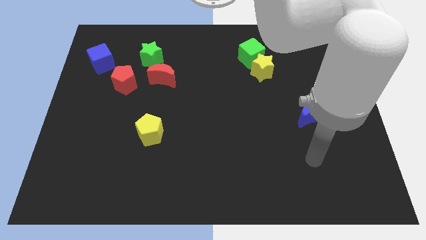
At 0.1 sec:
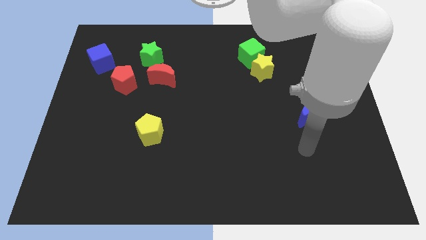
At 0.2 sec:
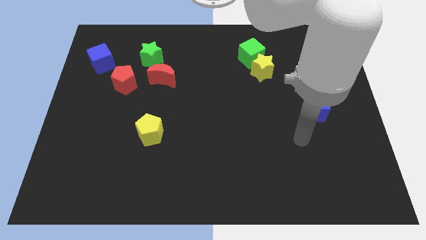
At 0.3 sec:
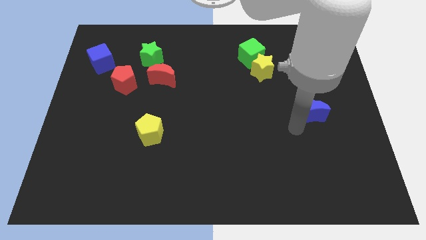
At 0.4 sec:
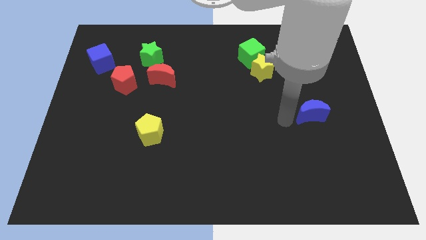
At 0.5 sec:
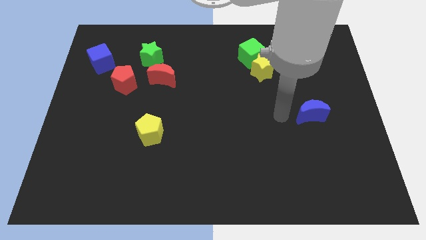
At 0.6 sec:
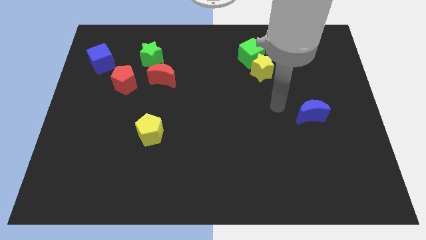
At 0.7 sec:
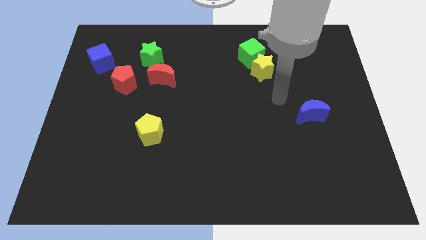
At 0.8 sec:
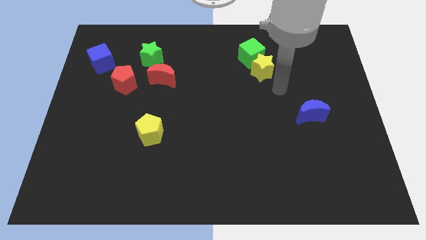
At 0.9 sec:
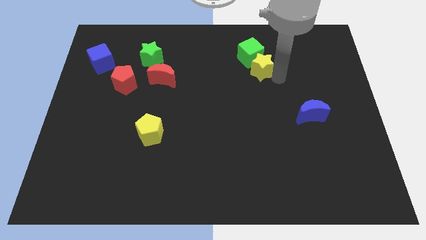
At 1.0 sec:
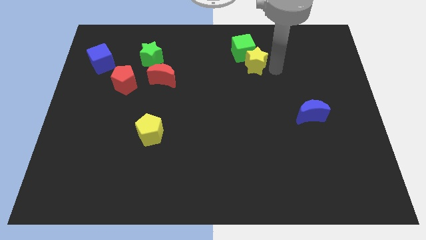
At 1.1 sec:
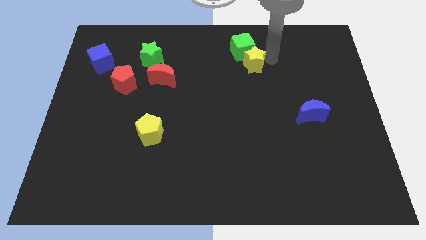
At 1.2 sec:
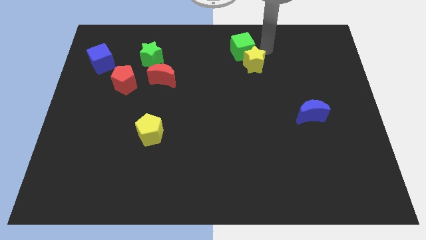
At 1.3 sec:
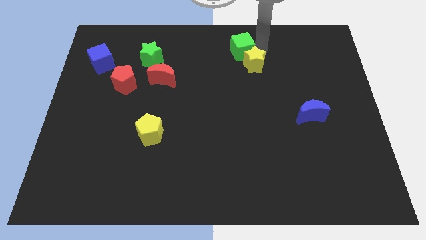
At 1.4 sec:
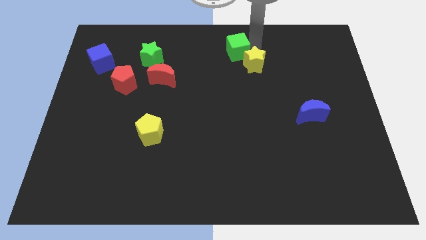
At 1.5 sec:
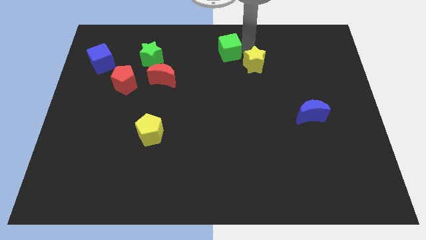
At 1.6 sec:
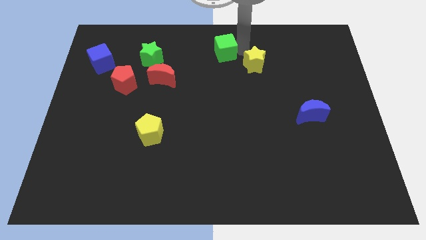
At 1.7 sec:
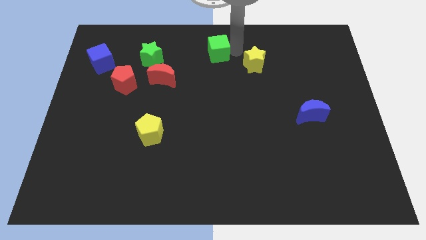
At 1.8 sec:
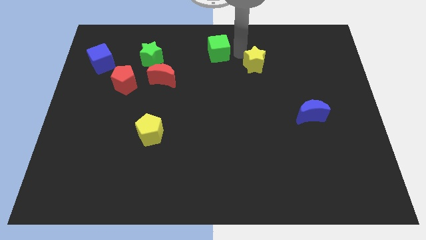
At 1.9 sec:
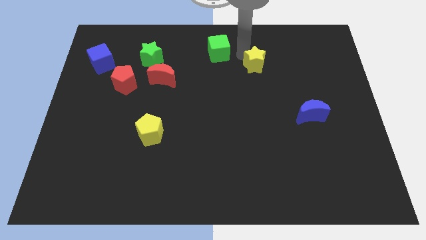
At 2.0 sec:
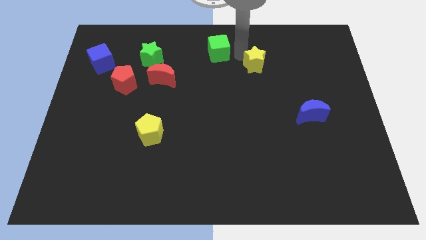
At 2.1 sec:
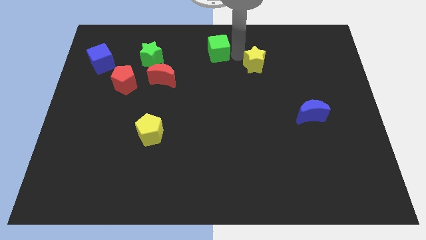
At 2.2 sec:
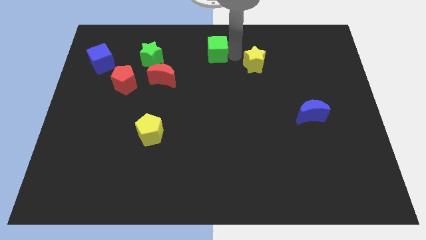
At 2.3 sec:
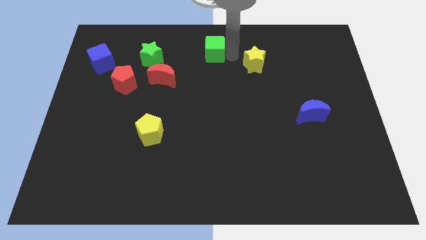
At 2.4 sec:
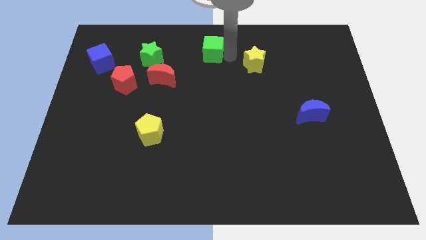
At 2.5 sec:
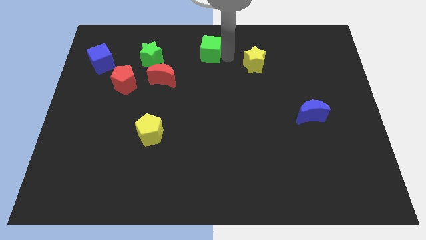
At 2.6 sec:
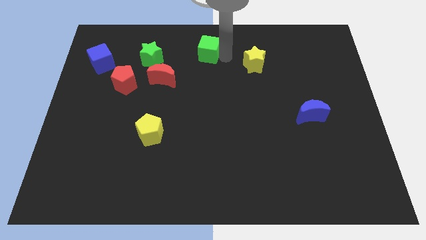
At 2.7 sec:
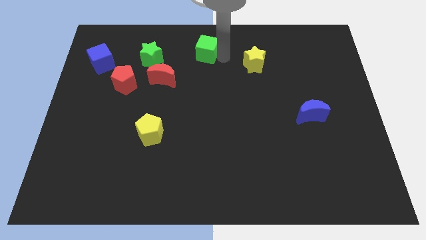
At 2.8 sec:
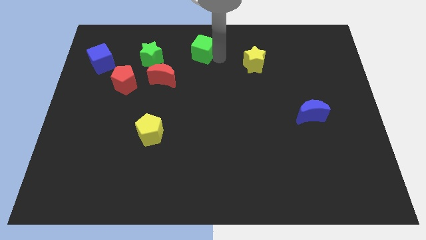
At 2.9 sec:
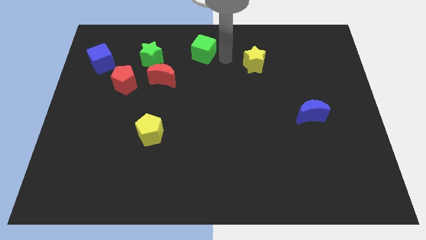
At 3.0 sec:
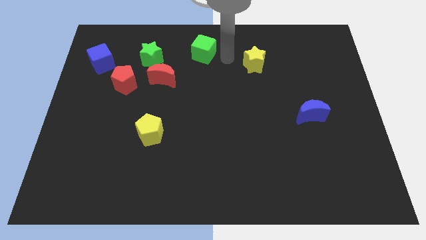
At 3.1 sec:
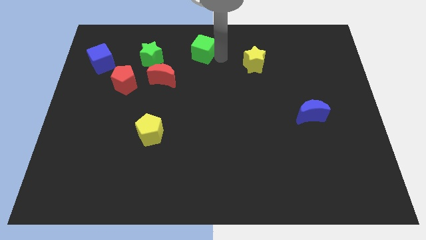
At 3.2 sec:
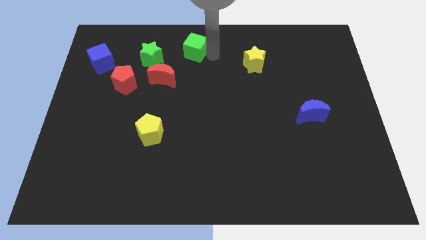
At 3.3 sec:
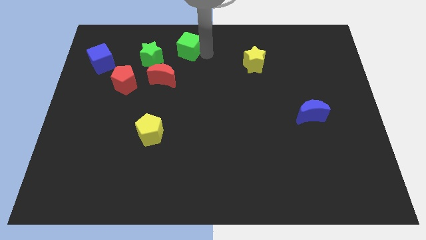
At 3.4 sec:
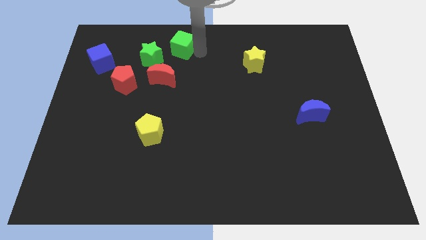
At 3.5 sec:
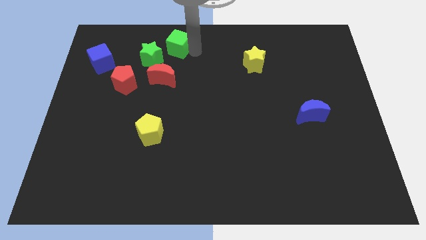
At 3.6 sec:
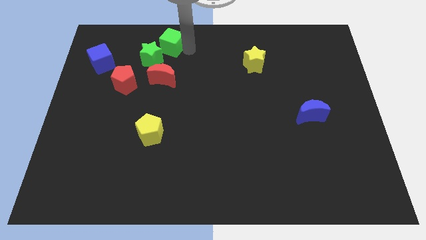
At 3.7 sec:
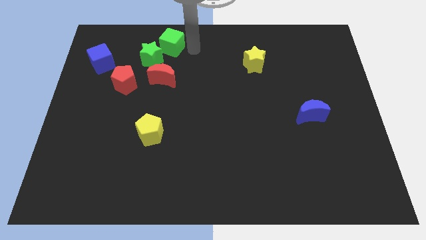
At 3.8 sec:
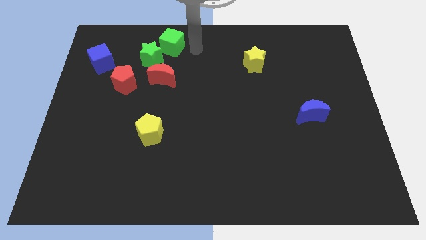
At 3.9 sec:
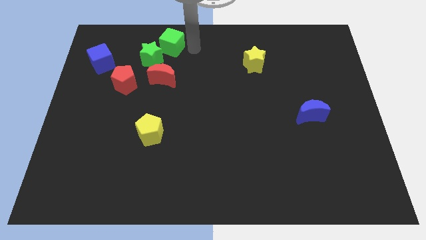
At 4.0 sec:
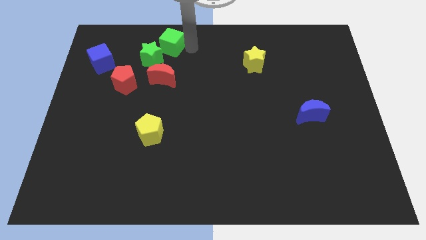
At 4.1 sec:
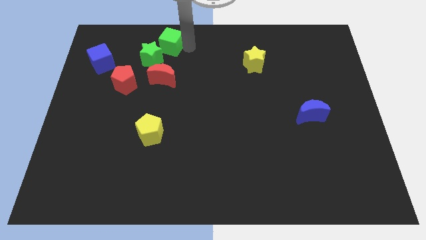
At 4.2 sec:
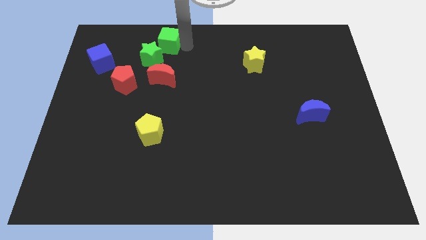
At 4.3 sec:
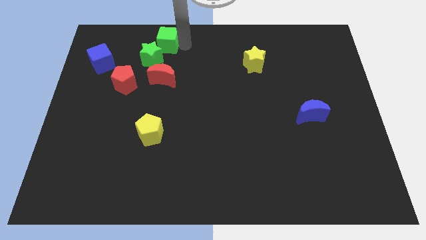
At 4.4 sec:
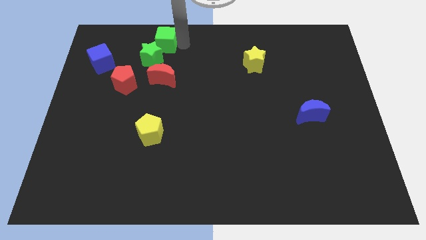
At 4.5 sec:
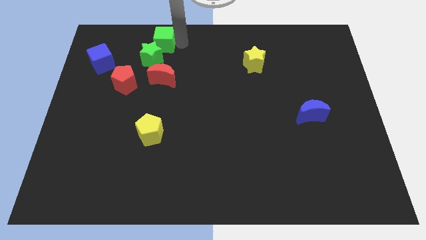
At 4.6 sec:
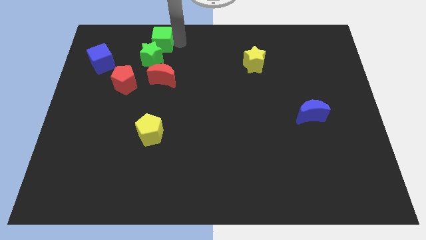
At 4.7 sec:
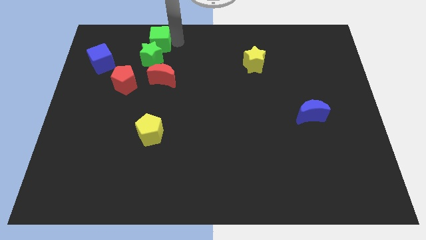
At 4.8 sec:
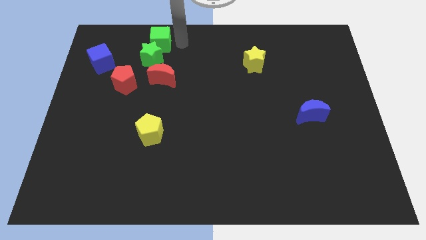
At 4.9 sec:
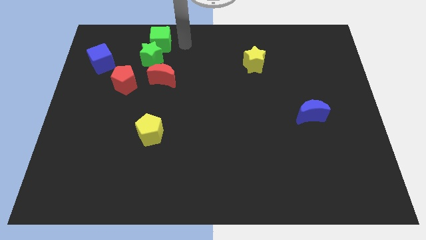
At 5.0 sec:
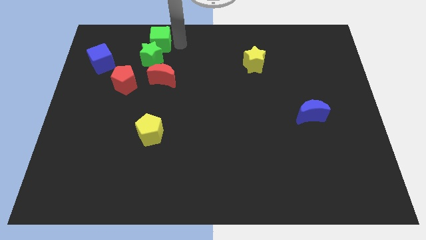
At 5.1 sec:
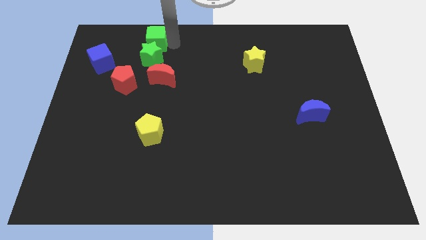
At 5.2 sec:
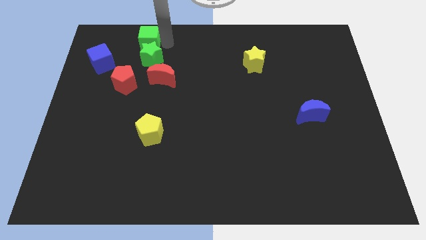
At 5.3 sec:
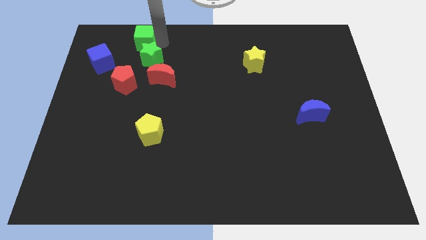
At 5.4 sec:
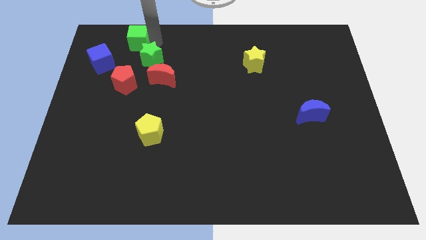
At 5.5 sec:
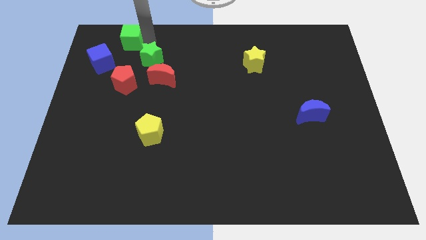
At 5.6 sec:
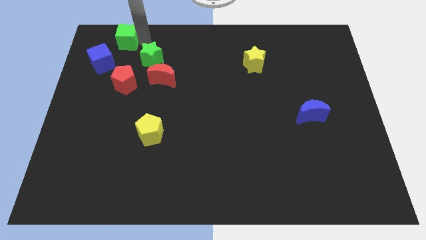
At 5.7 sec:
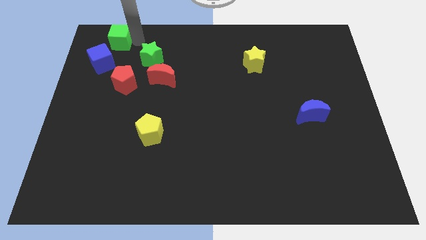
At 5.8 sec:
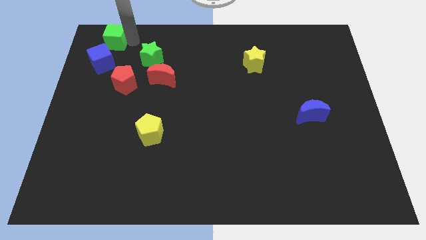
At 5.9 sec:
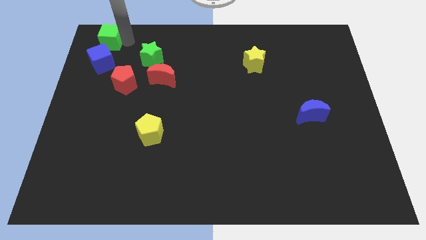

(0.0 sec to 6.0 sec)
slide the green cube to the top left

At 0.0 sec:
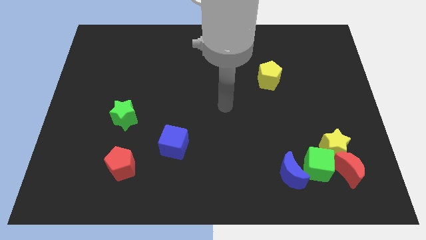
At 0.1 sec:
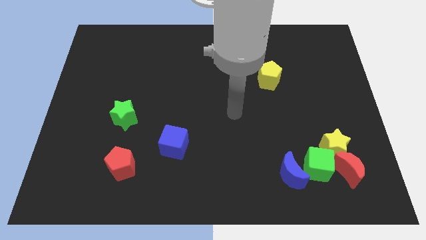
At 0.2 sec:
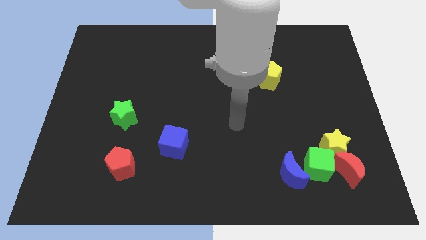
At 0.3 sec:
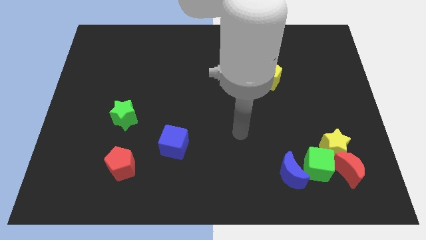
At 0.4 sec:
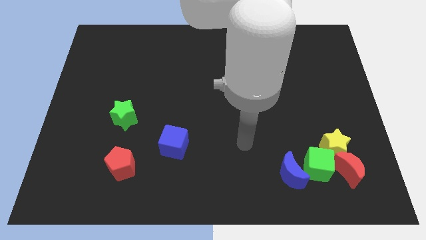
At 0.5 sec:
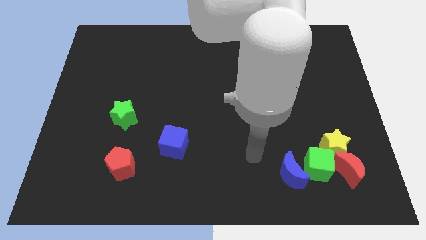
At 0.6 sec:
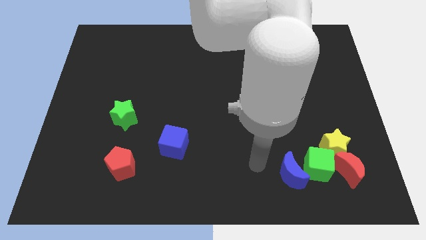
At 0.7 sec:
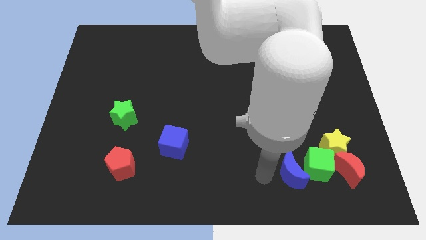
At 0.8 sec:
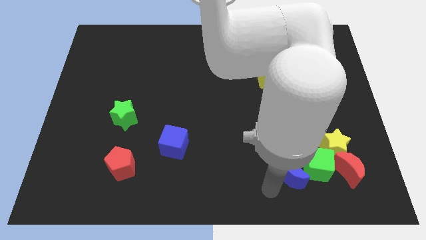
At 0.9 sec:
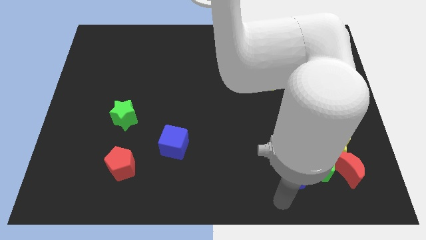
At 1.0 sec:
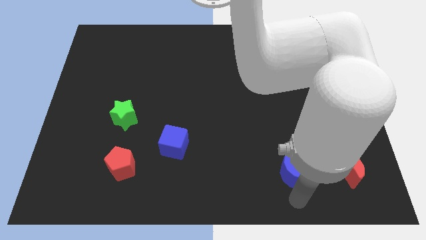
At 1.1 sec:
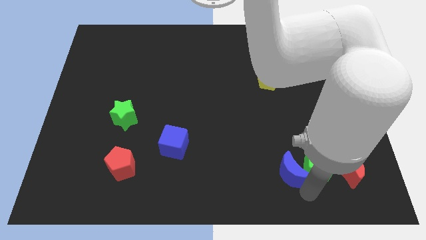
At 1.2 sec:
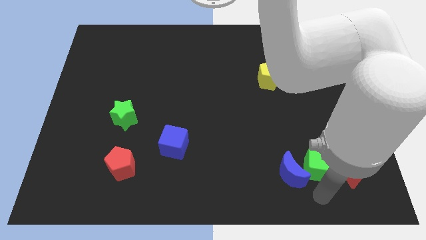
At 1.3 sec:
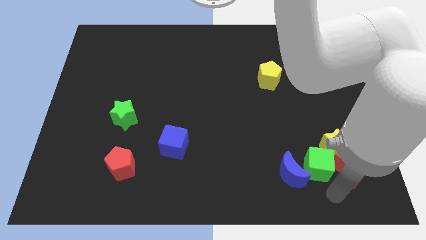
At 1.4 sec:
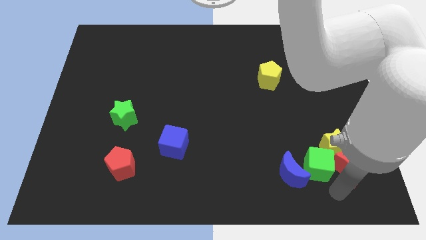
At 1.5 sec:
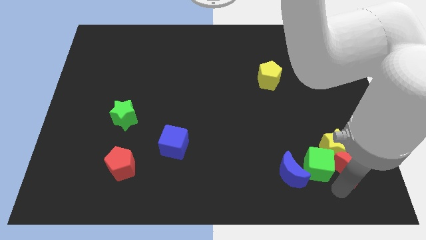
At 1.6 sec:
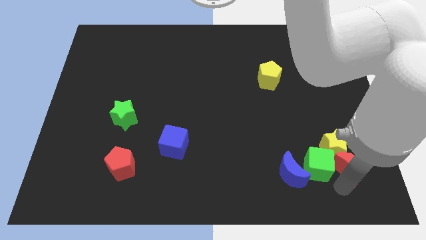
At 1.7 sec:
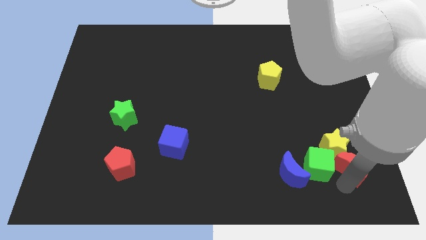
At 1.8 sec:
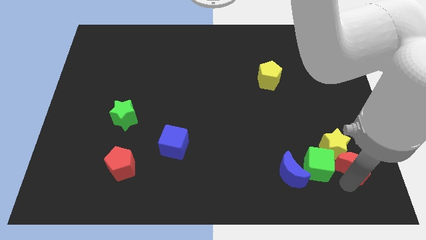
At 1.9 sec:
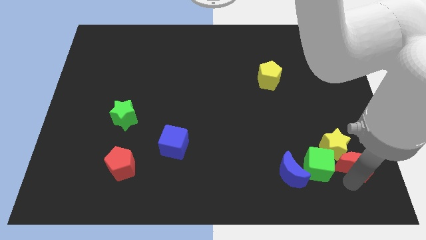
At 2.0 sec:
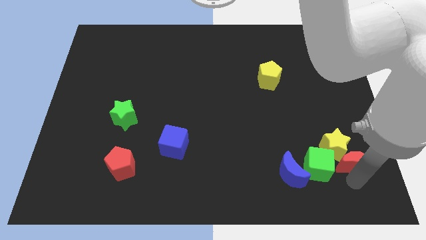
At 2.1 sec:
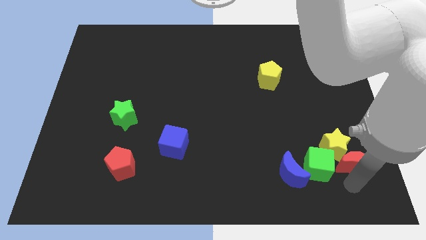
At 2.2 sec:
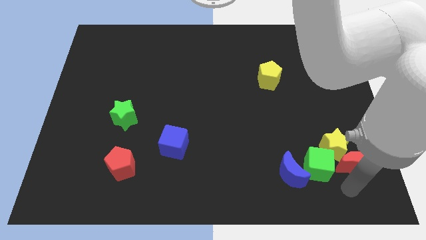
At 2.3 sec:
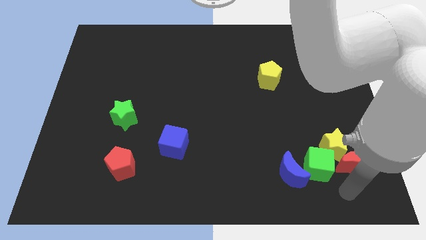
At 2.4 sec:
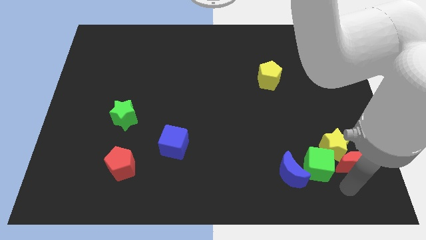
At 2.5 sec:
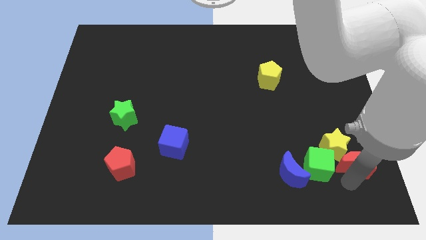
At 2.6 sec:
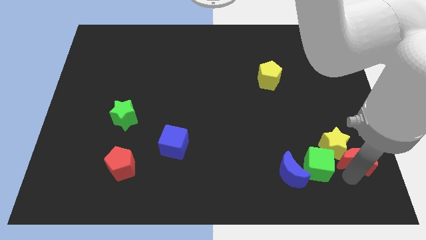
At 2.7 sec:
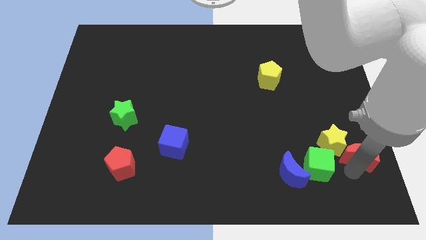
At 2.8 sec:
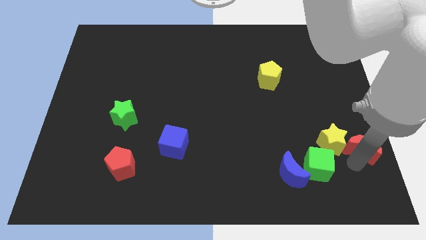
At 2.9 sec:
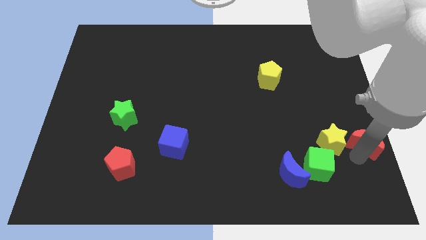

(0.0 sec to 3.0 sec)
move the red moon to the right side of the board
